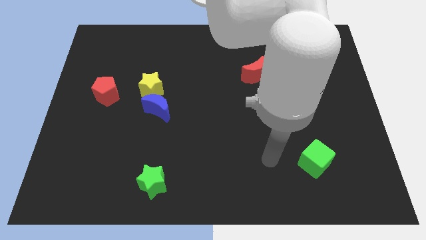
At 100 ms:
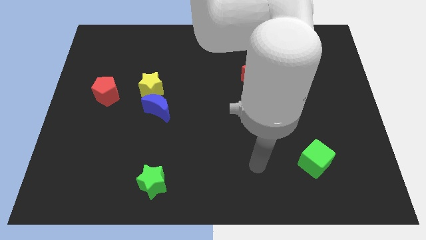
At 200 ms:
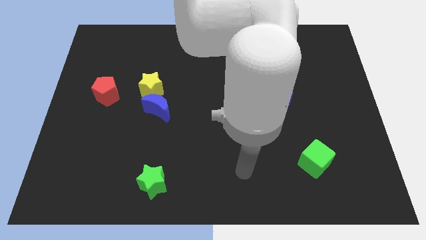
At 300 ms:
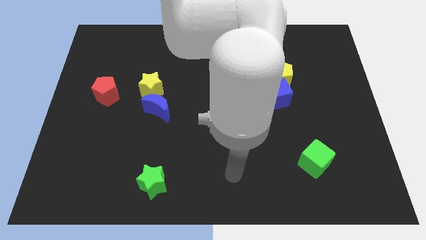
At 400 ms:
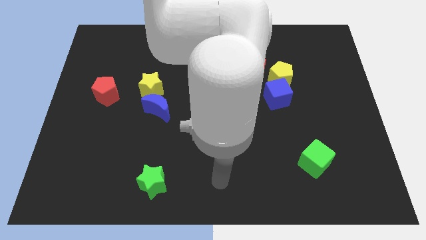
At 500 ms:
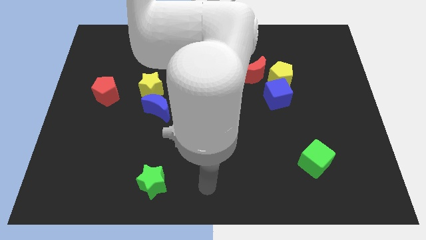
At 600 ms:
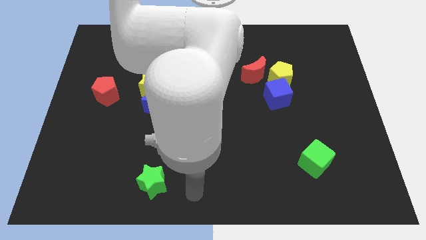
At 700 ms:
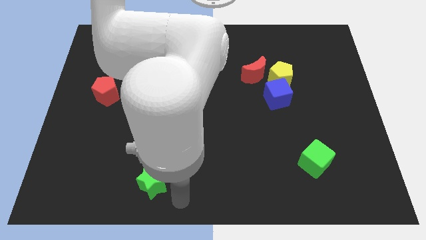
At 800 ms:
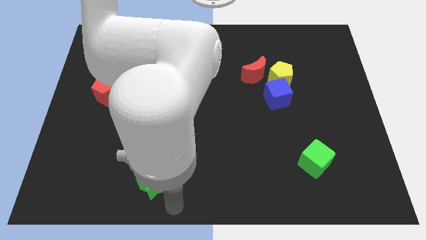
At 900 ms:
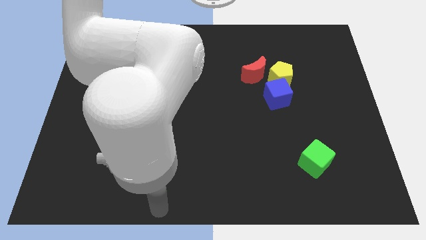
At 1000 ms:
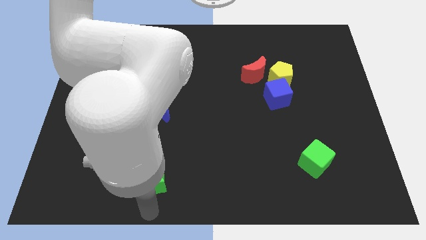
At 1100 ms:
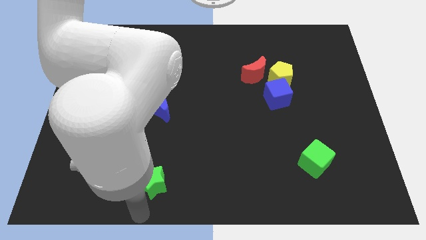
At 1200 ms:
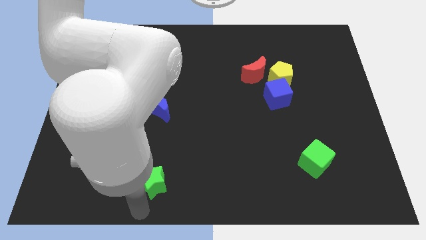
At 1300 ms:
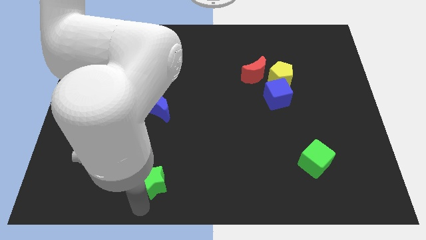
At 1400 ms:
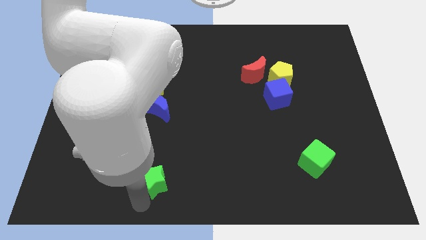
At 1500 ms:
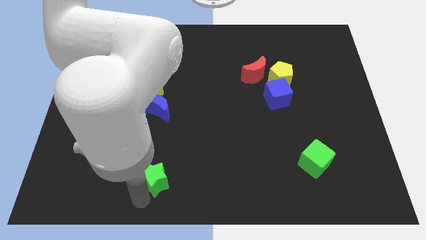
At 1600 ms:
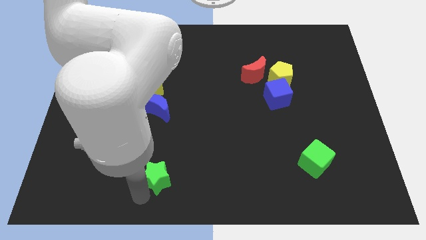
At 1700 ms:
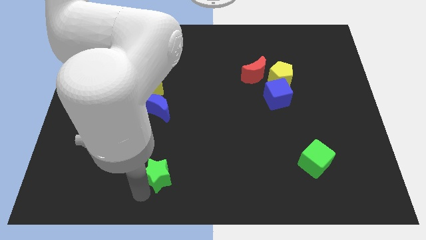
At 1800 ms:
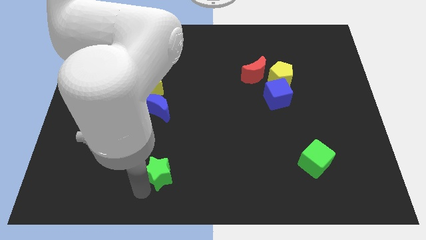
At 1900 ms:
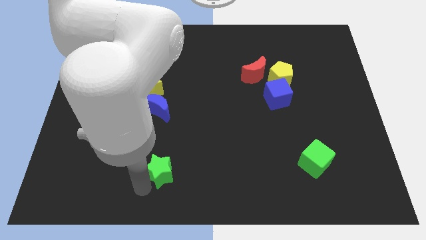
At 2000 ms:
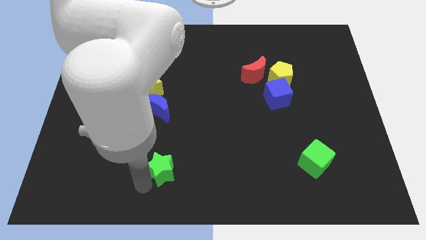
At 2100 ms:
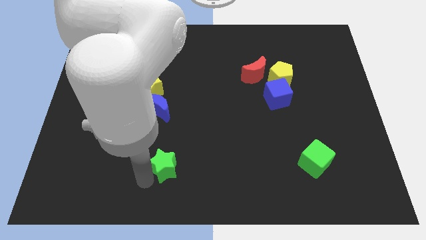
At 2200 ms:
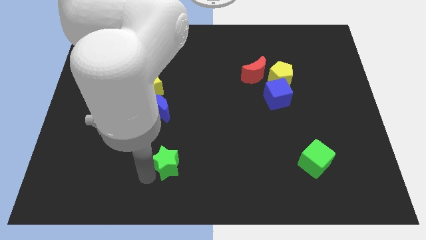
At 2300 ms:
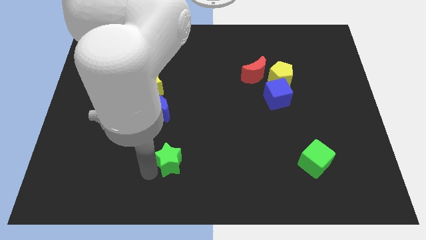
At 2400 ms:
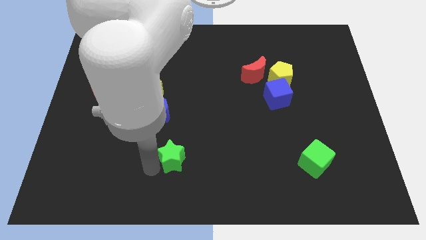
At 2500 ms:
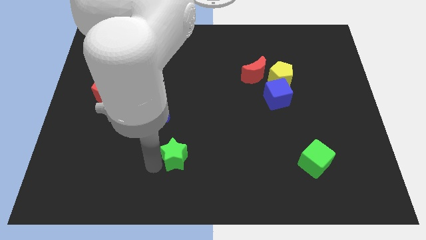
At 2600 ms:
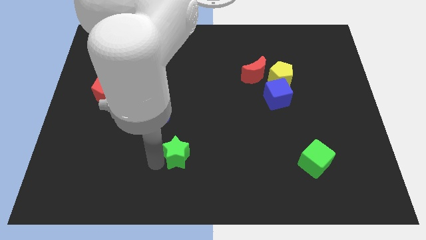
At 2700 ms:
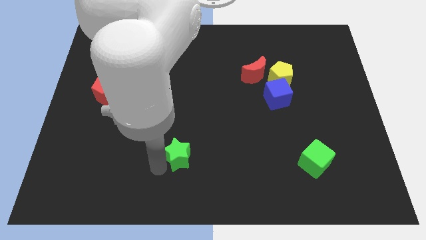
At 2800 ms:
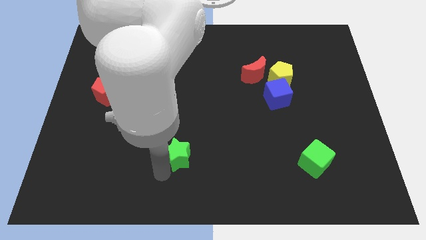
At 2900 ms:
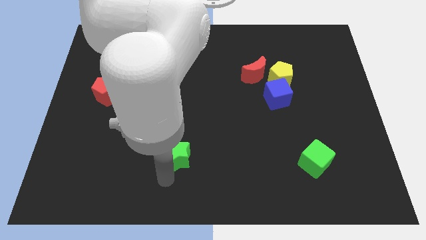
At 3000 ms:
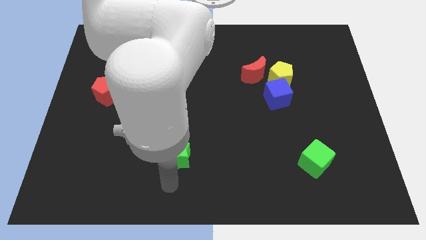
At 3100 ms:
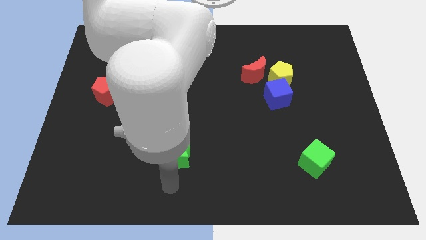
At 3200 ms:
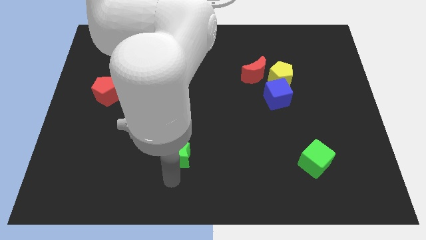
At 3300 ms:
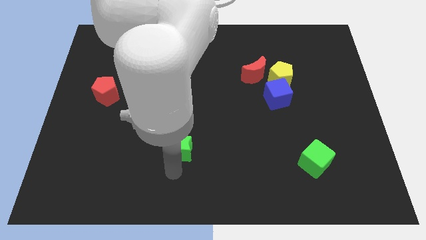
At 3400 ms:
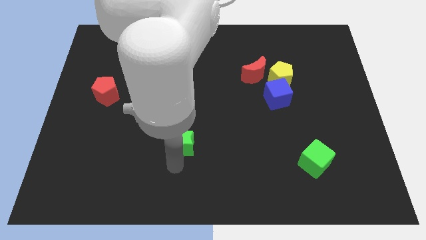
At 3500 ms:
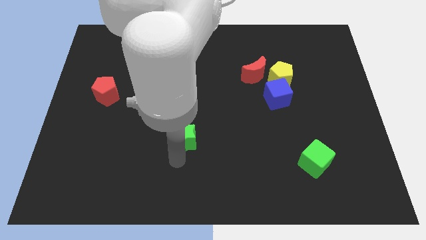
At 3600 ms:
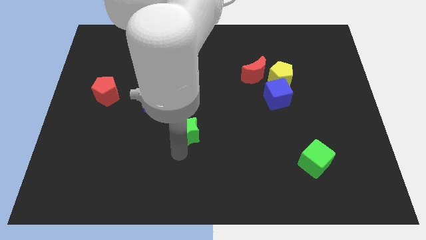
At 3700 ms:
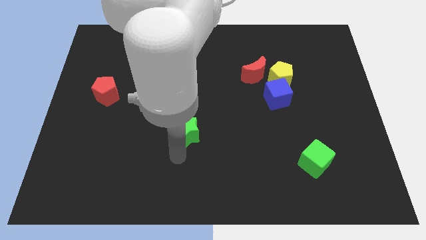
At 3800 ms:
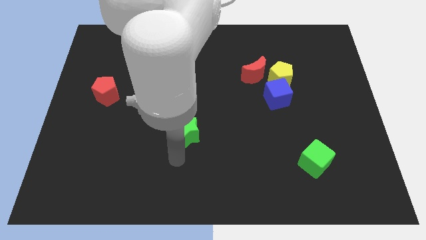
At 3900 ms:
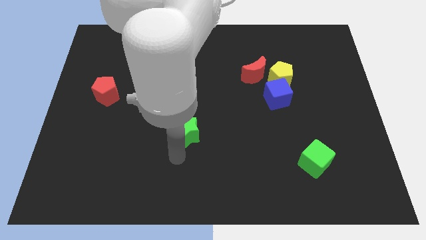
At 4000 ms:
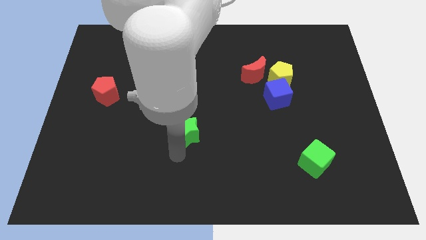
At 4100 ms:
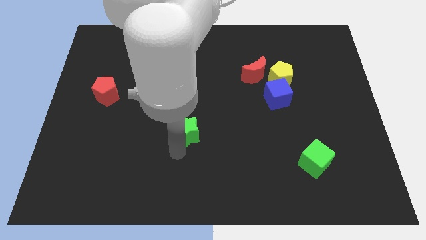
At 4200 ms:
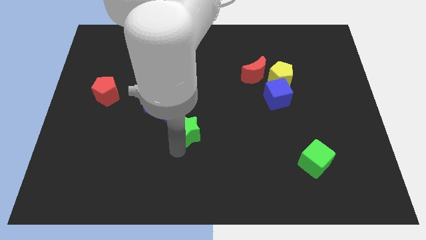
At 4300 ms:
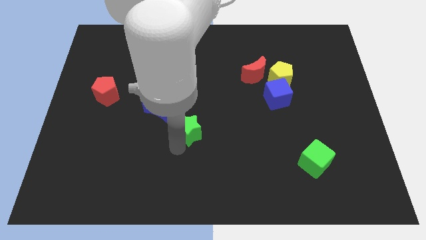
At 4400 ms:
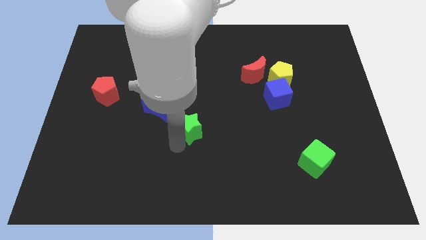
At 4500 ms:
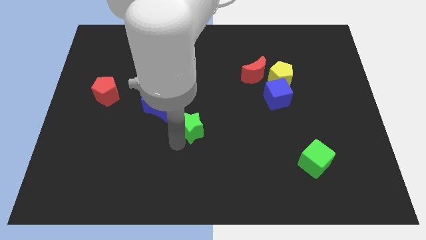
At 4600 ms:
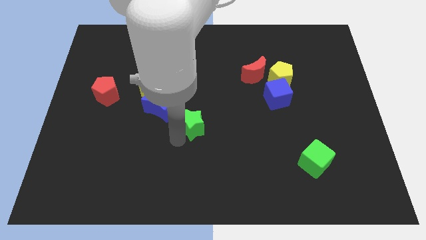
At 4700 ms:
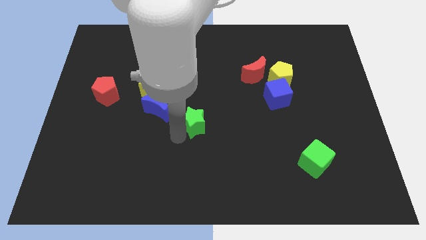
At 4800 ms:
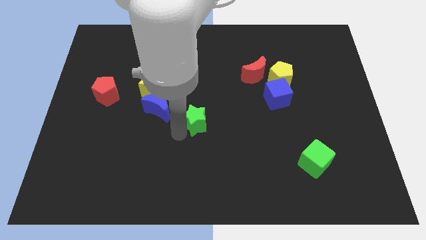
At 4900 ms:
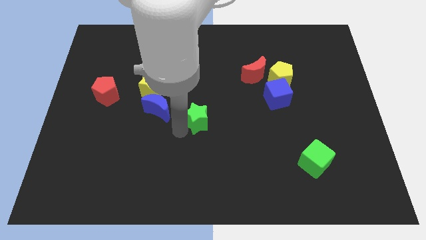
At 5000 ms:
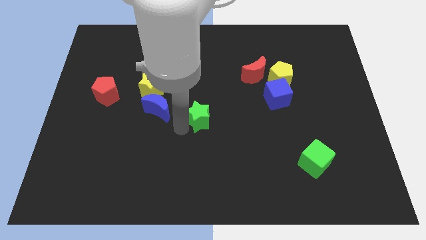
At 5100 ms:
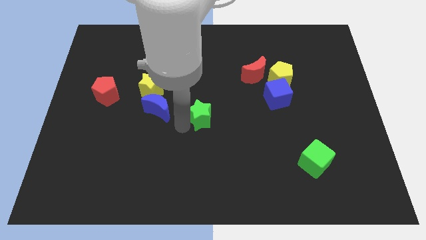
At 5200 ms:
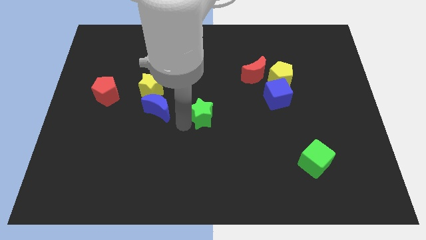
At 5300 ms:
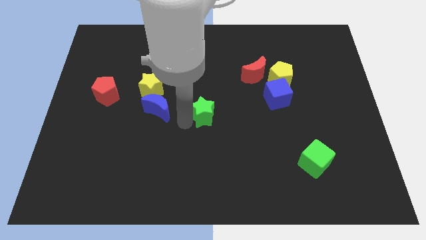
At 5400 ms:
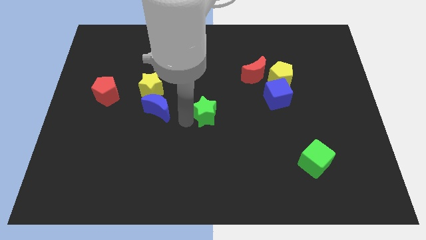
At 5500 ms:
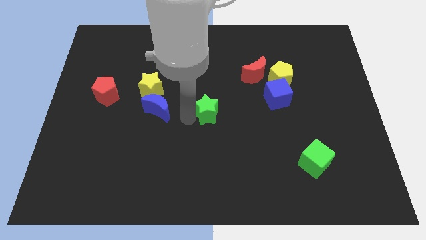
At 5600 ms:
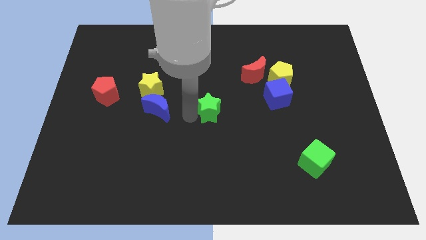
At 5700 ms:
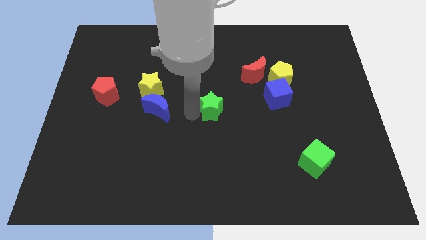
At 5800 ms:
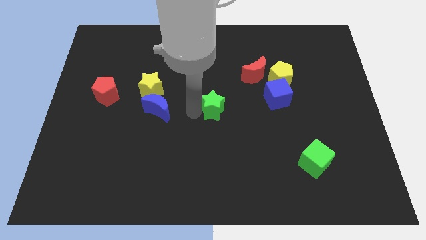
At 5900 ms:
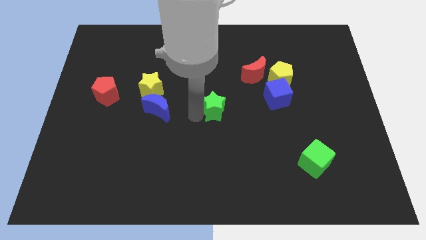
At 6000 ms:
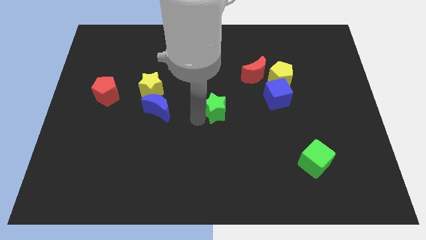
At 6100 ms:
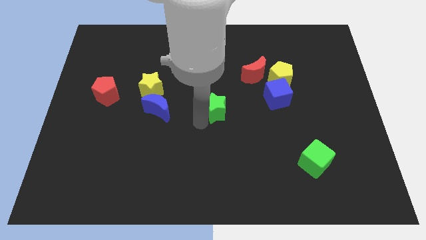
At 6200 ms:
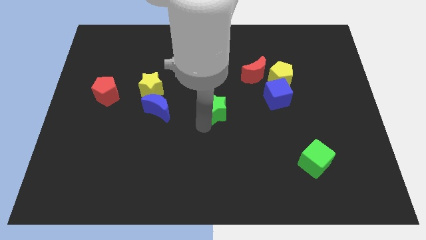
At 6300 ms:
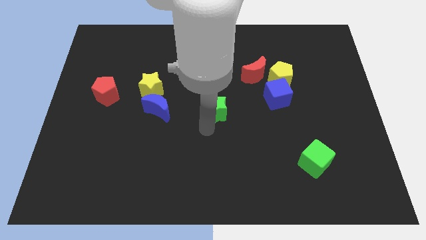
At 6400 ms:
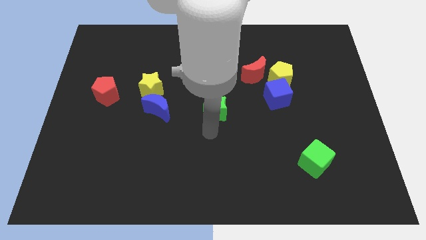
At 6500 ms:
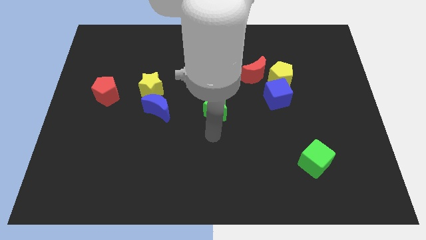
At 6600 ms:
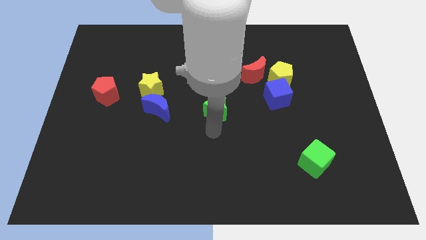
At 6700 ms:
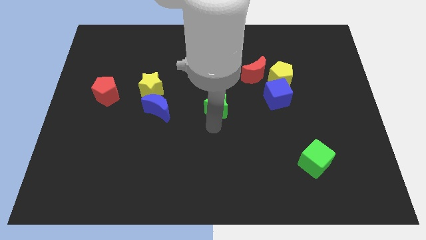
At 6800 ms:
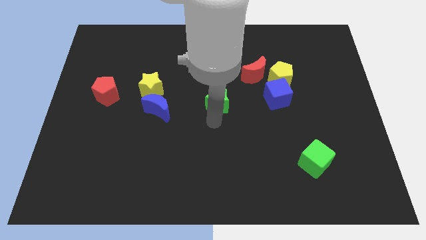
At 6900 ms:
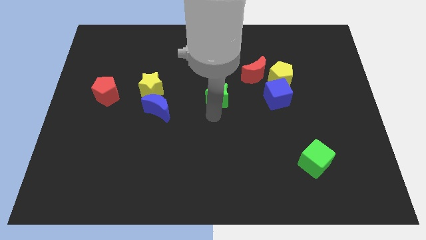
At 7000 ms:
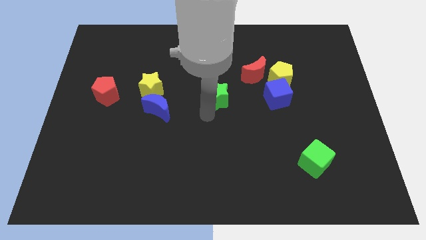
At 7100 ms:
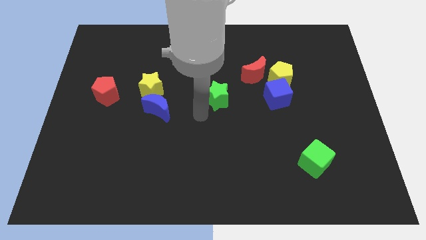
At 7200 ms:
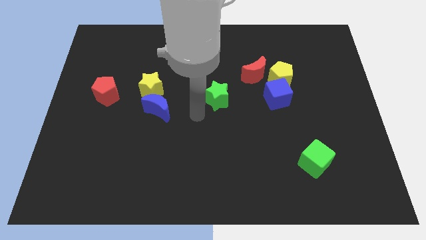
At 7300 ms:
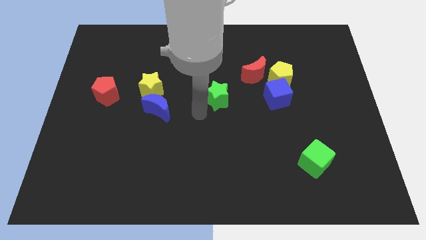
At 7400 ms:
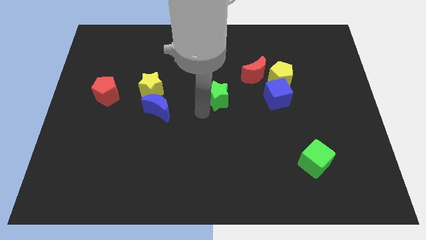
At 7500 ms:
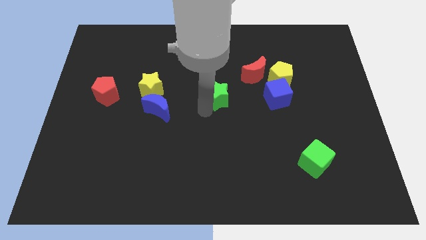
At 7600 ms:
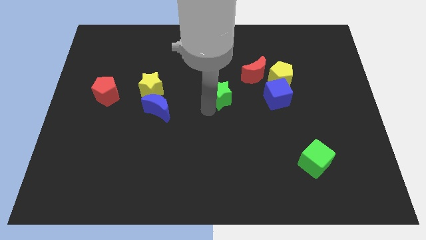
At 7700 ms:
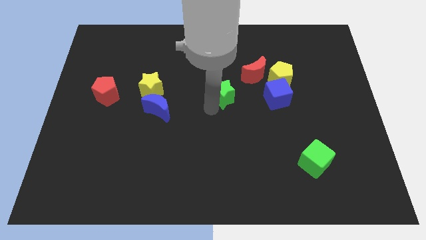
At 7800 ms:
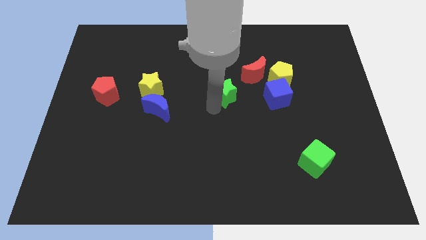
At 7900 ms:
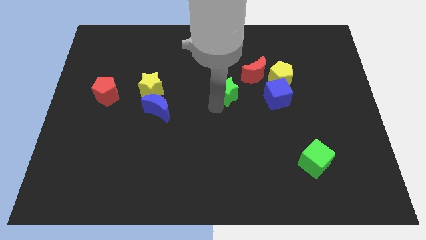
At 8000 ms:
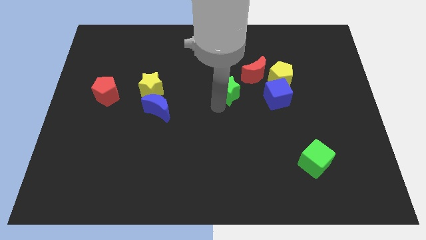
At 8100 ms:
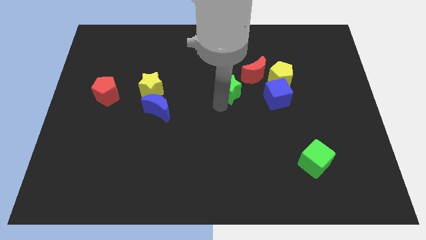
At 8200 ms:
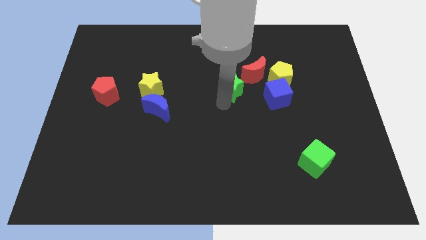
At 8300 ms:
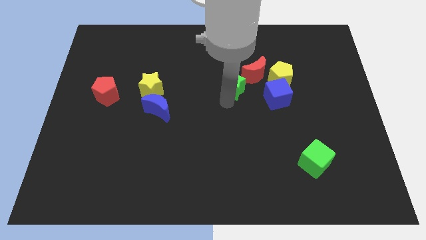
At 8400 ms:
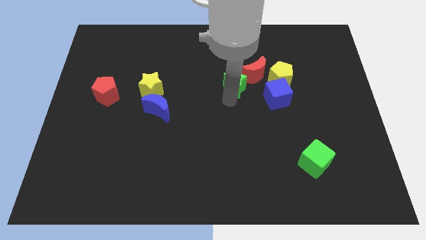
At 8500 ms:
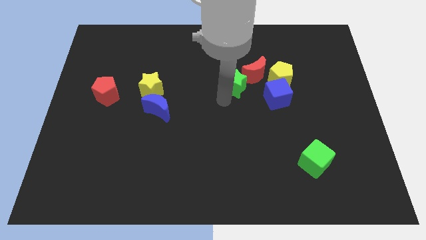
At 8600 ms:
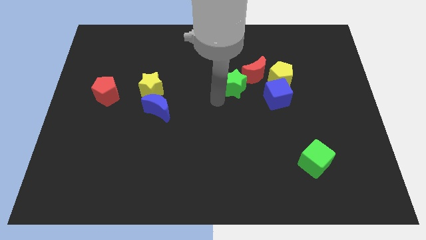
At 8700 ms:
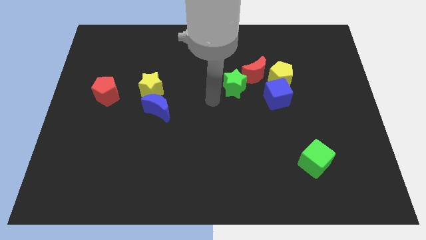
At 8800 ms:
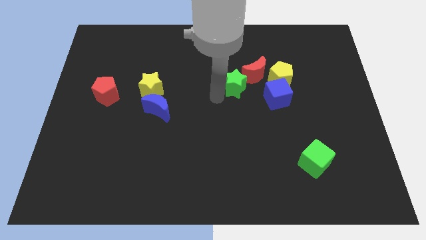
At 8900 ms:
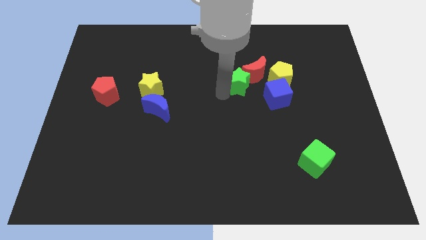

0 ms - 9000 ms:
move the green star close to the red moon
